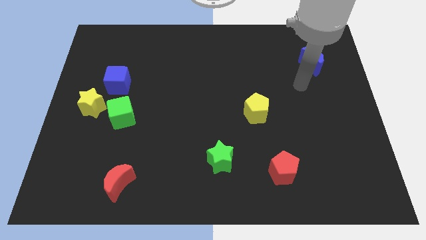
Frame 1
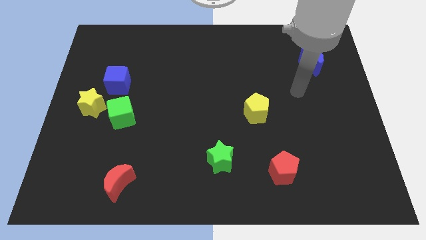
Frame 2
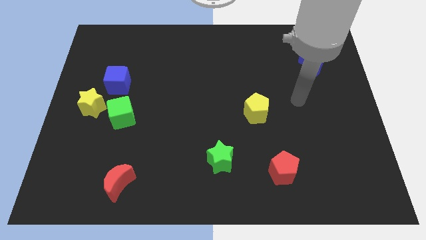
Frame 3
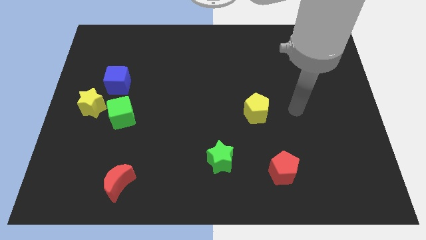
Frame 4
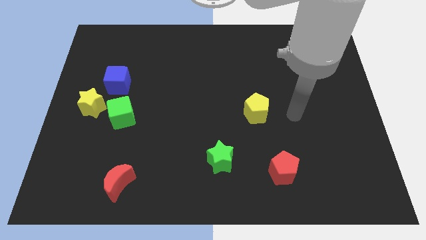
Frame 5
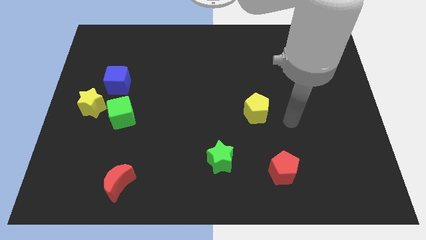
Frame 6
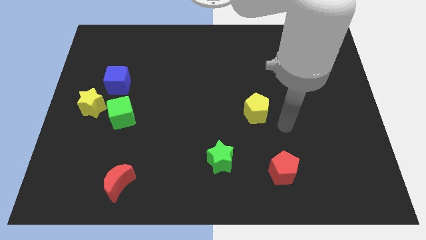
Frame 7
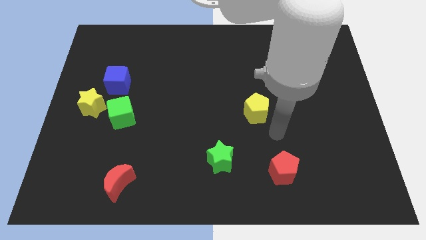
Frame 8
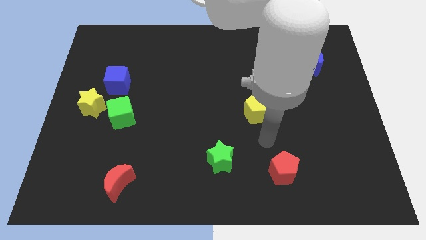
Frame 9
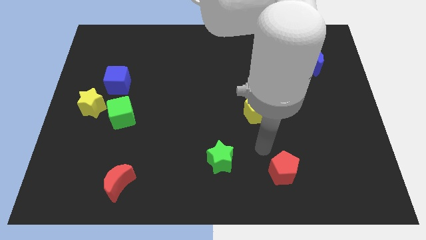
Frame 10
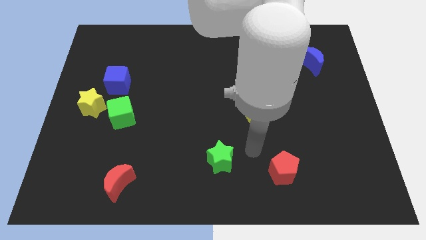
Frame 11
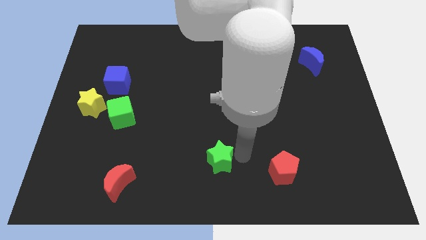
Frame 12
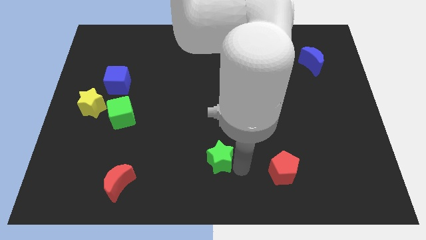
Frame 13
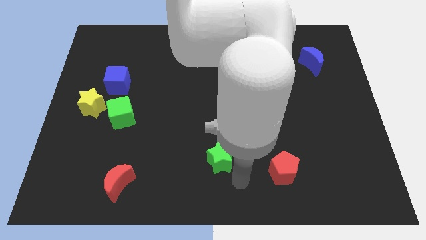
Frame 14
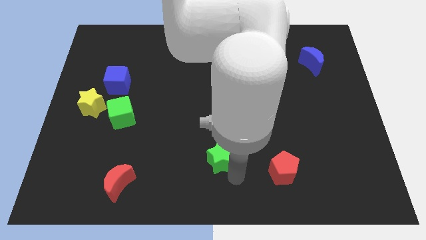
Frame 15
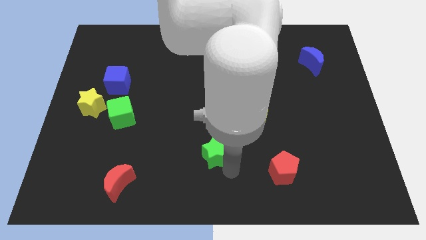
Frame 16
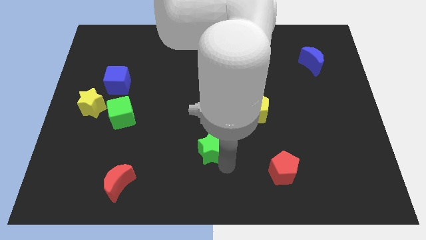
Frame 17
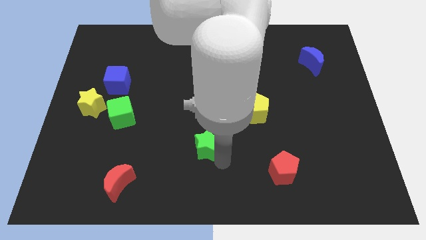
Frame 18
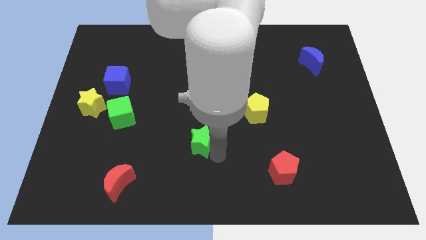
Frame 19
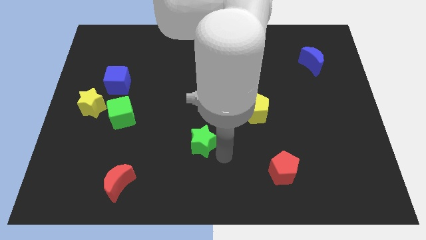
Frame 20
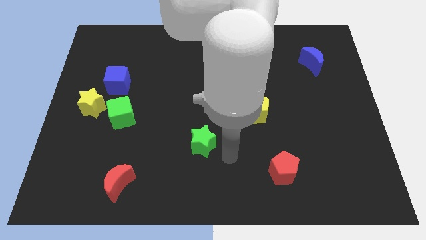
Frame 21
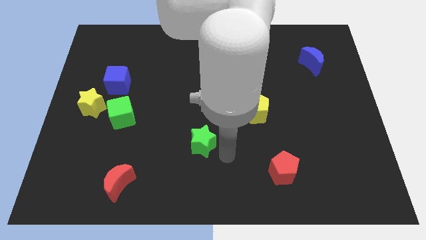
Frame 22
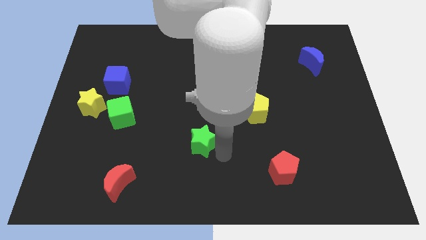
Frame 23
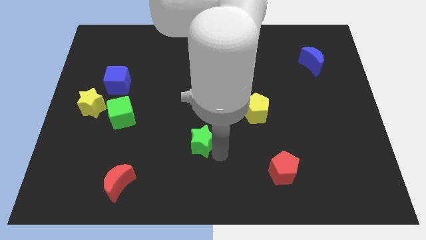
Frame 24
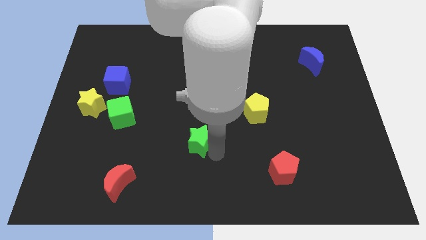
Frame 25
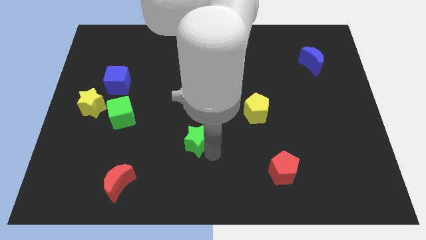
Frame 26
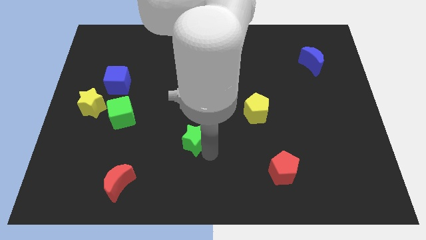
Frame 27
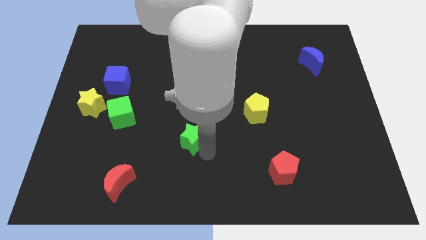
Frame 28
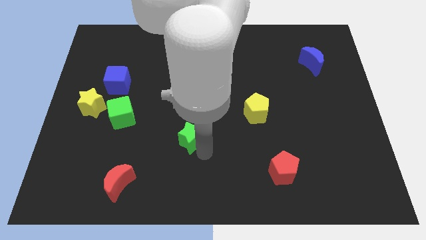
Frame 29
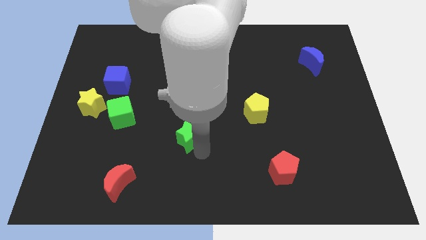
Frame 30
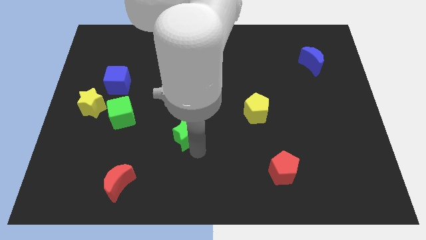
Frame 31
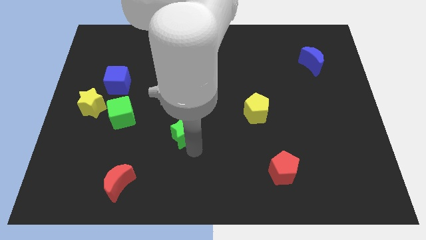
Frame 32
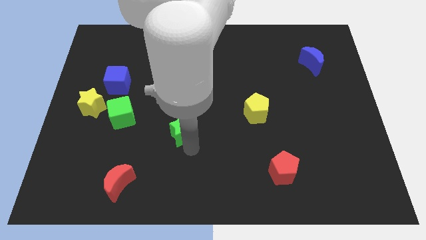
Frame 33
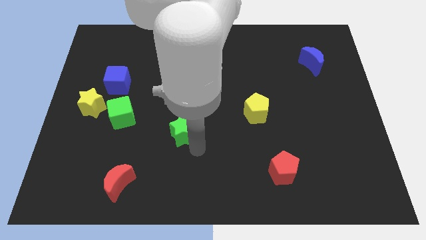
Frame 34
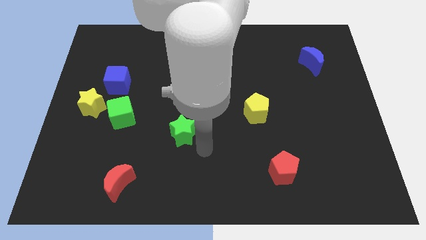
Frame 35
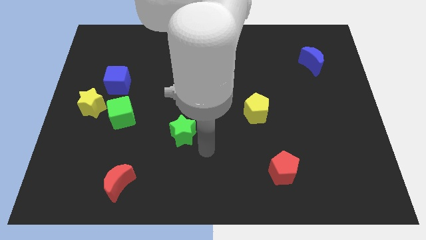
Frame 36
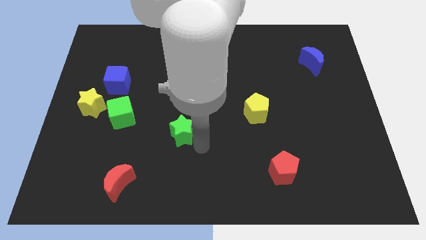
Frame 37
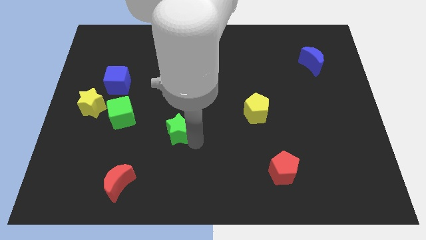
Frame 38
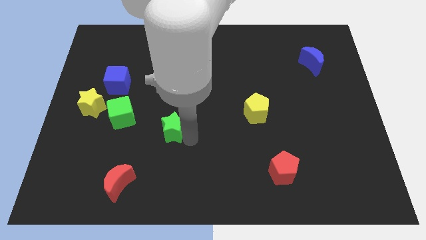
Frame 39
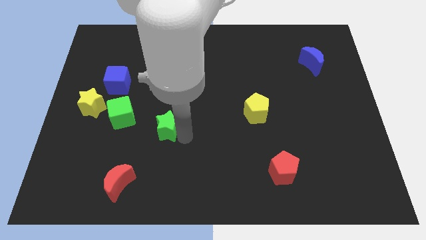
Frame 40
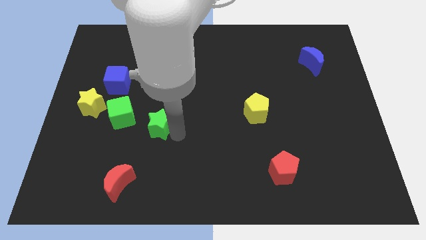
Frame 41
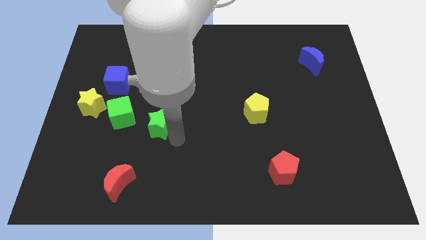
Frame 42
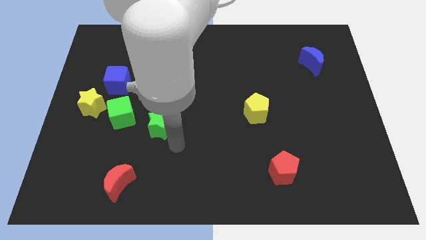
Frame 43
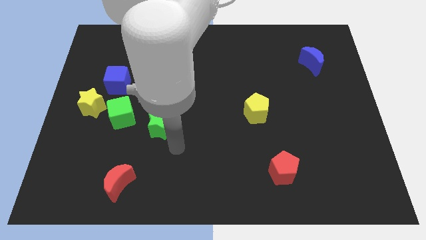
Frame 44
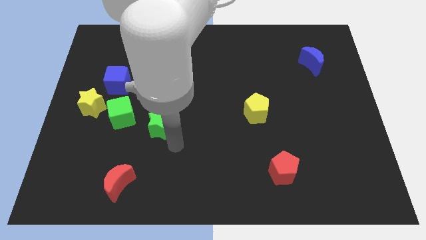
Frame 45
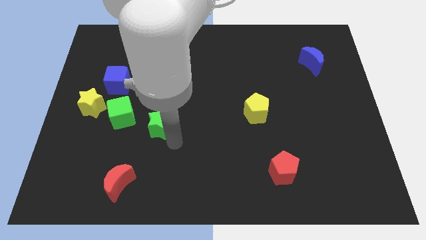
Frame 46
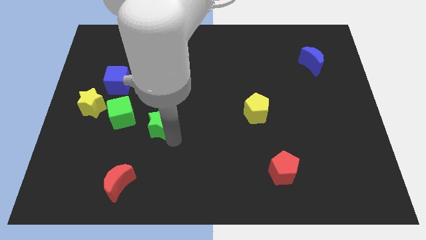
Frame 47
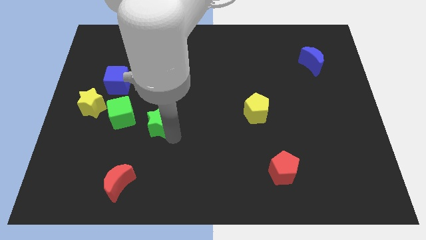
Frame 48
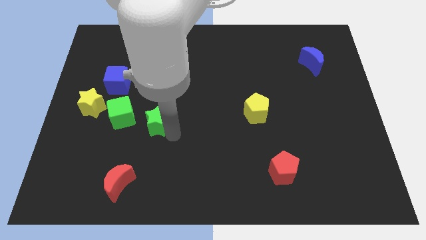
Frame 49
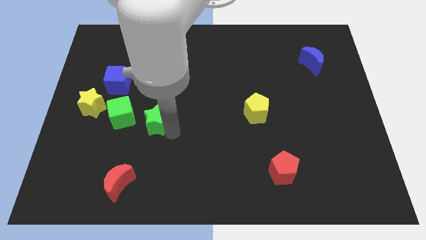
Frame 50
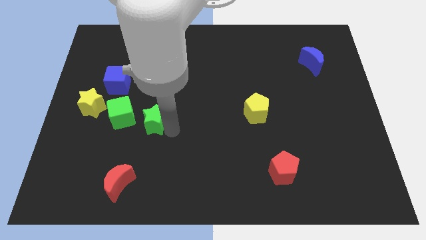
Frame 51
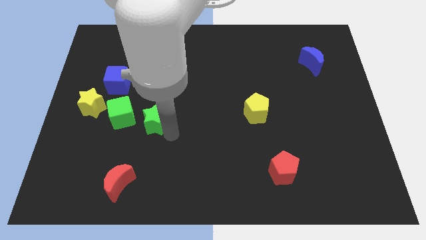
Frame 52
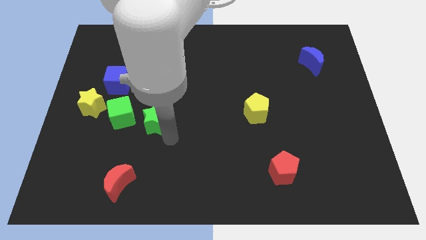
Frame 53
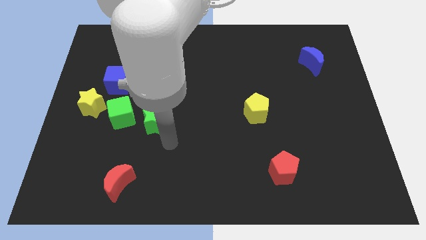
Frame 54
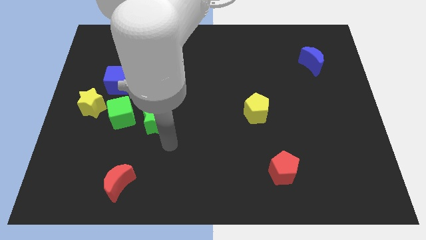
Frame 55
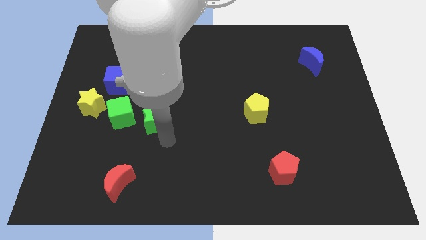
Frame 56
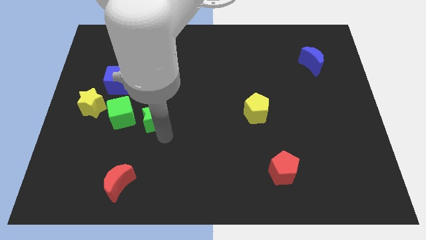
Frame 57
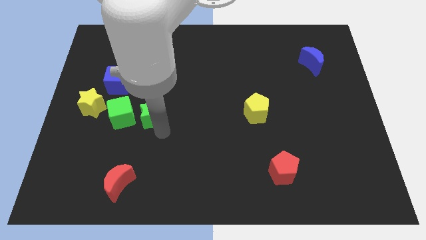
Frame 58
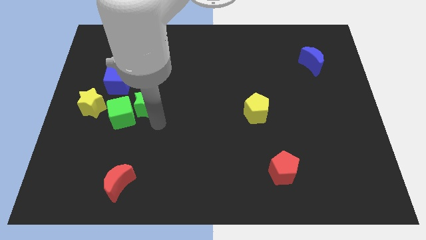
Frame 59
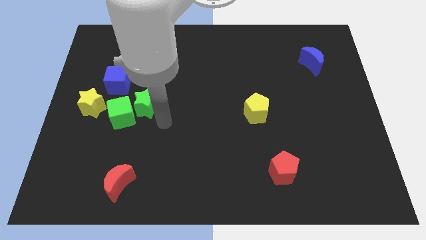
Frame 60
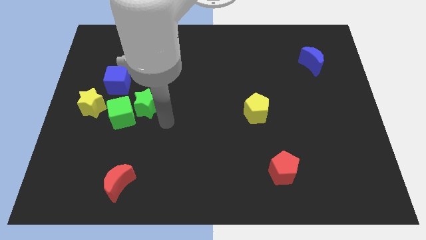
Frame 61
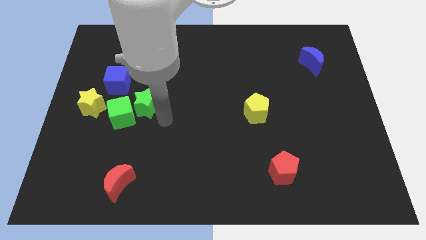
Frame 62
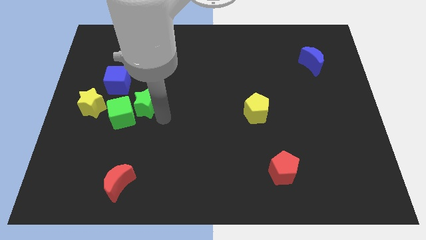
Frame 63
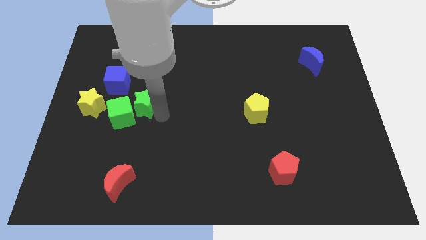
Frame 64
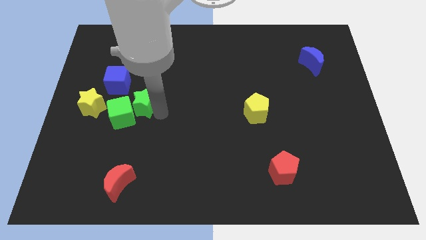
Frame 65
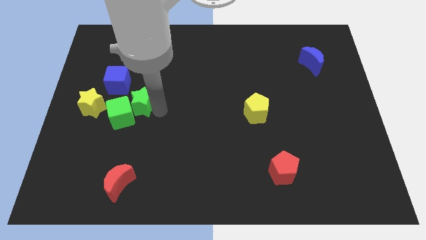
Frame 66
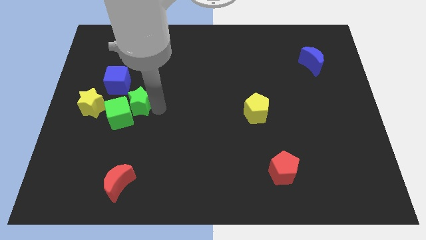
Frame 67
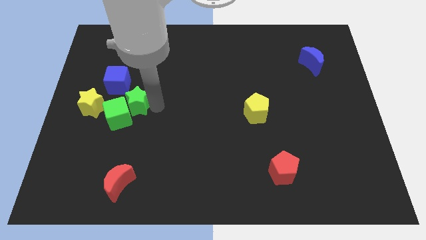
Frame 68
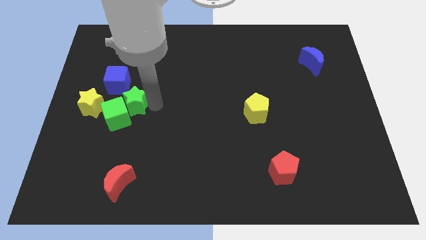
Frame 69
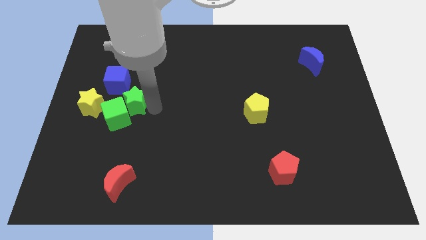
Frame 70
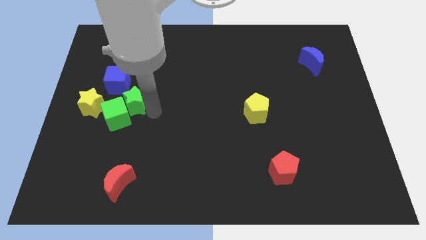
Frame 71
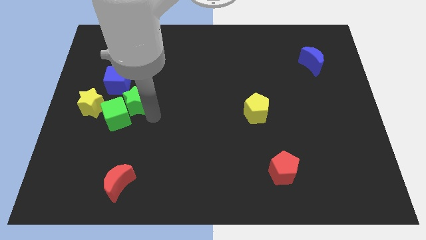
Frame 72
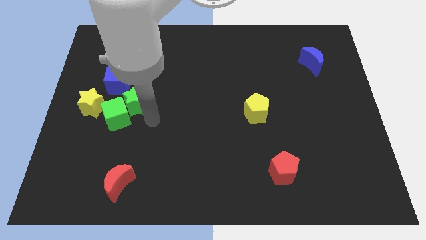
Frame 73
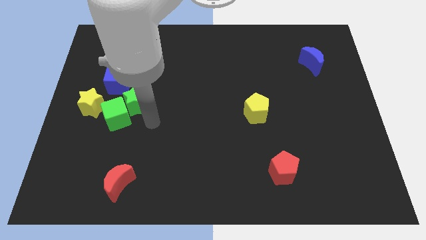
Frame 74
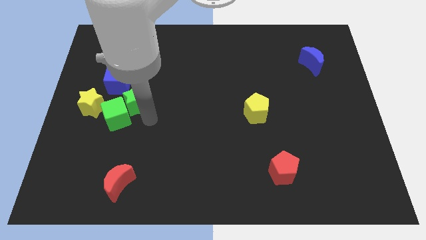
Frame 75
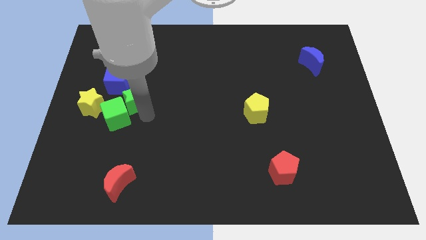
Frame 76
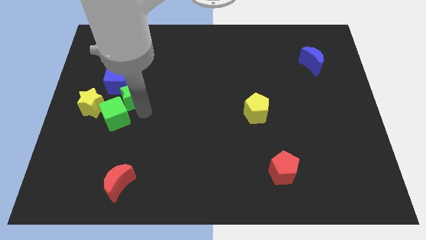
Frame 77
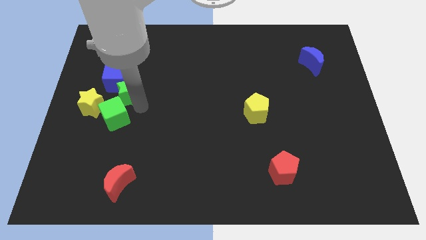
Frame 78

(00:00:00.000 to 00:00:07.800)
push the green star to the blue cube

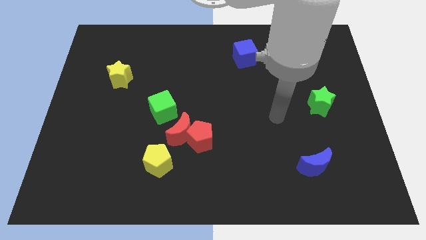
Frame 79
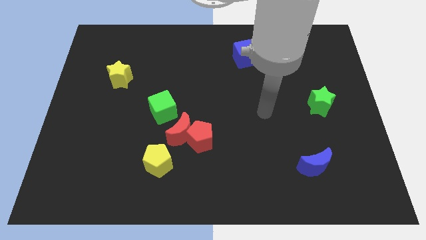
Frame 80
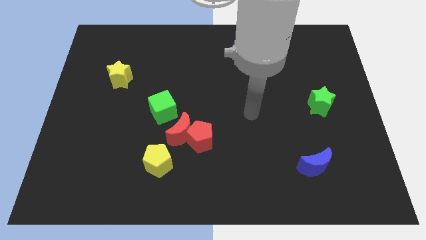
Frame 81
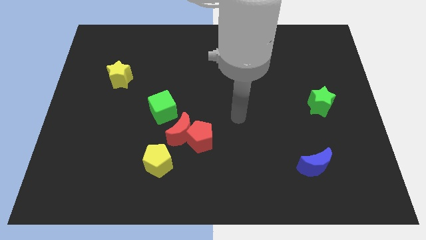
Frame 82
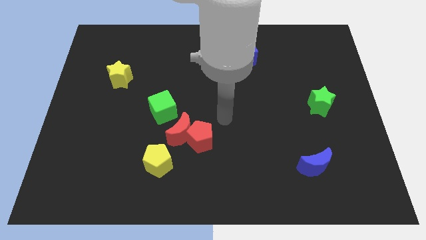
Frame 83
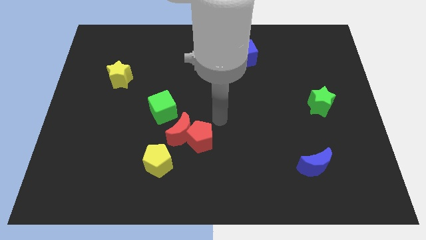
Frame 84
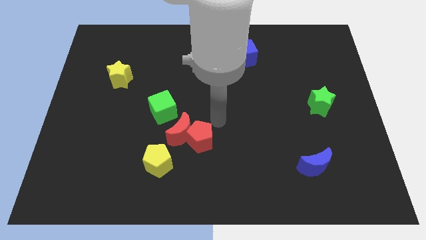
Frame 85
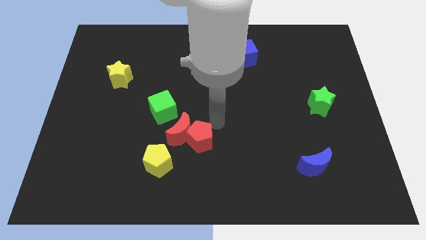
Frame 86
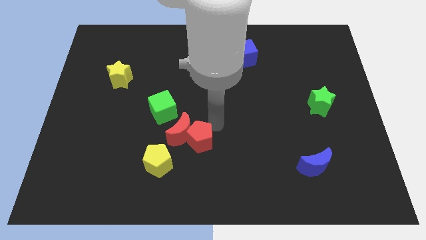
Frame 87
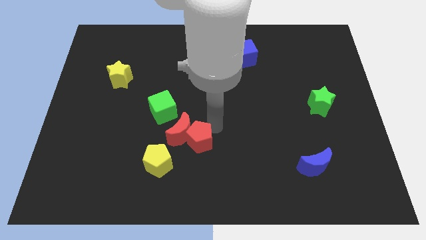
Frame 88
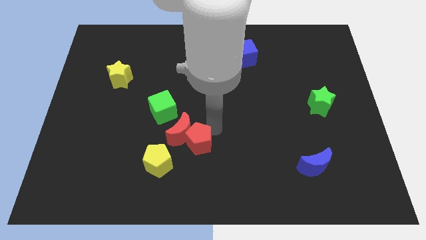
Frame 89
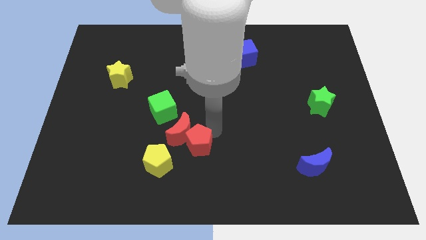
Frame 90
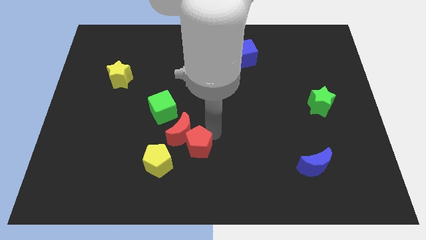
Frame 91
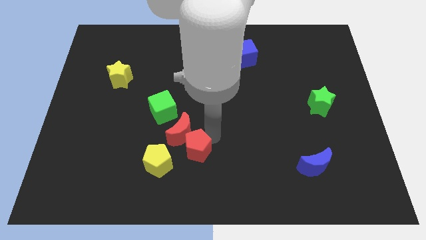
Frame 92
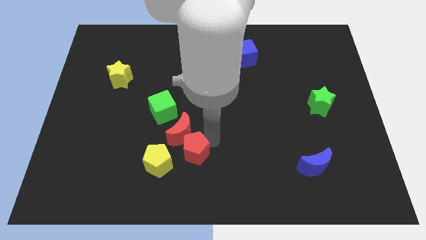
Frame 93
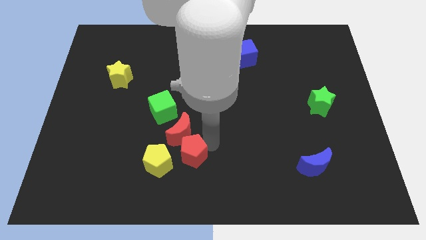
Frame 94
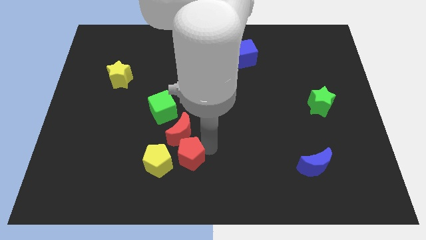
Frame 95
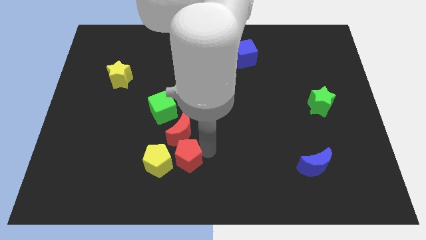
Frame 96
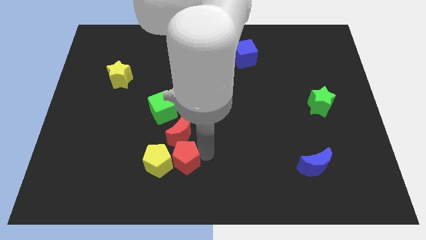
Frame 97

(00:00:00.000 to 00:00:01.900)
slide the red pentagon next to the yellow pentagon
